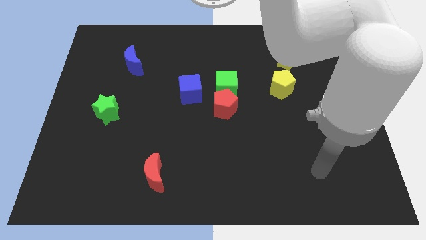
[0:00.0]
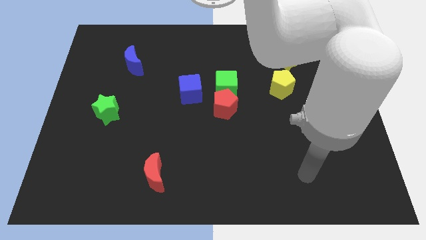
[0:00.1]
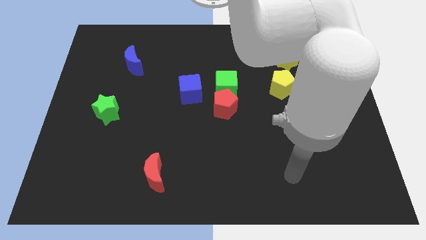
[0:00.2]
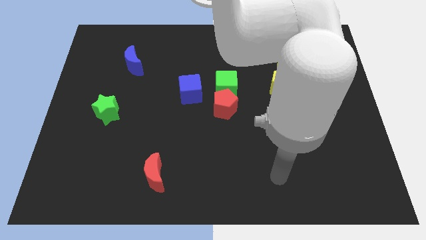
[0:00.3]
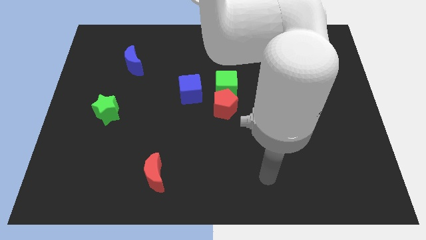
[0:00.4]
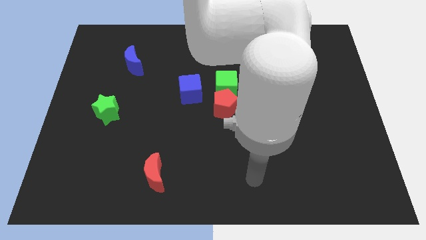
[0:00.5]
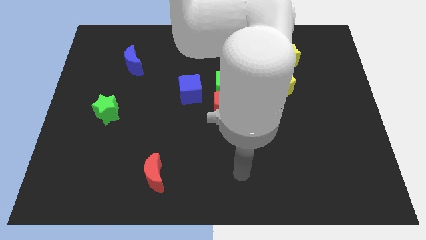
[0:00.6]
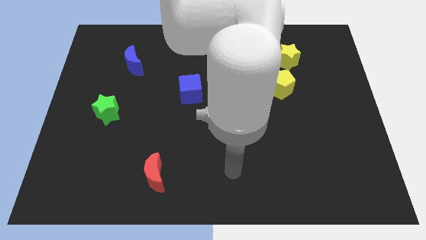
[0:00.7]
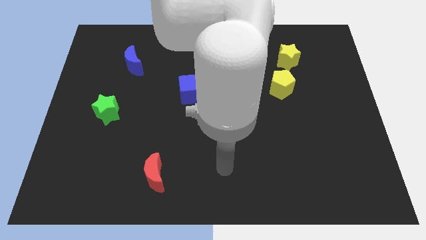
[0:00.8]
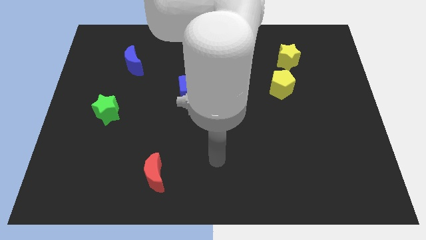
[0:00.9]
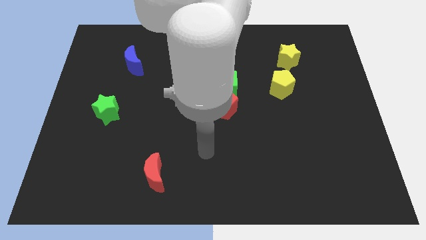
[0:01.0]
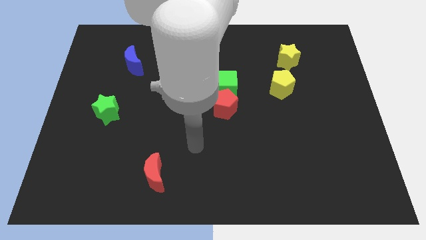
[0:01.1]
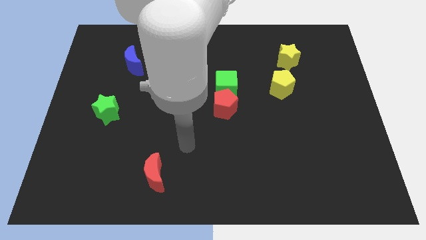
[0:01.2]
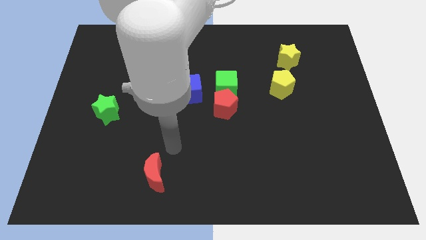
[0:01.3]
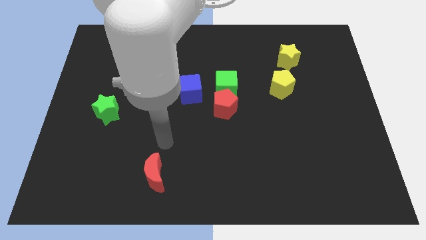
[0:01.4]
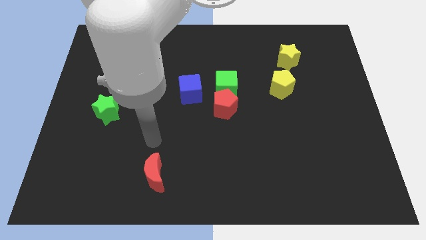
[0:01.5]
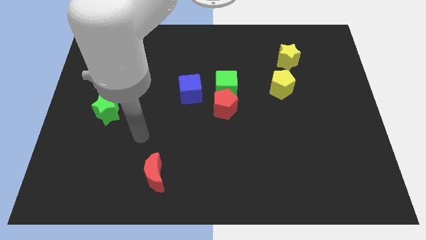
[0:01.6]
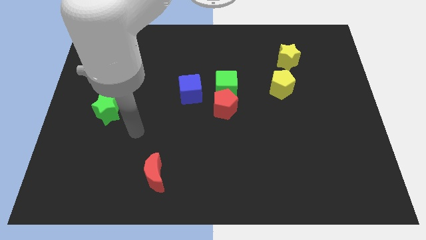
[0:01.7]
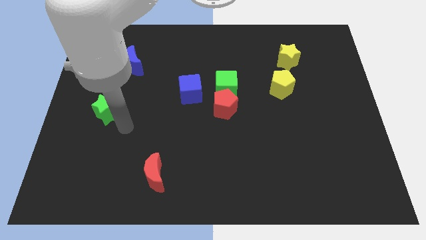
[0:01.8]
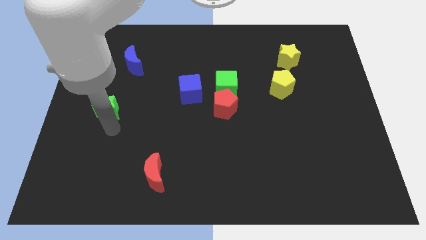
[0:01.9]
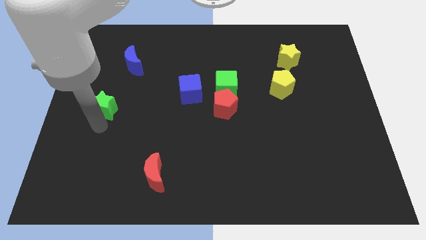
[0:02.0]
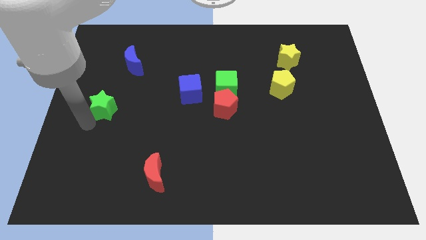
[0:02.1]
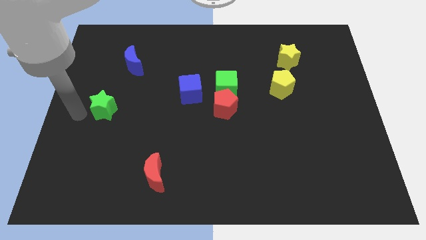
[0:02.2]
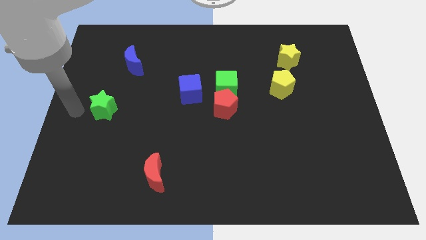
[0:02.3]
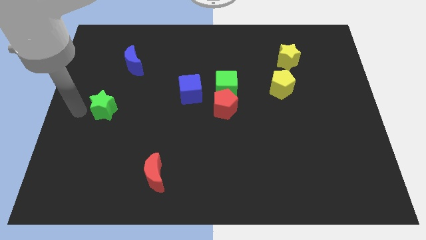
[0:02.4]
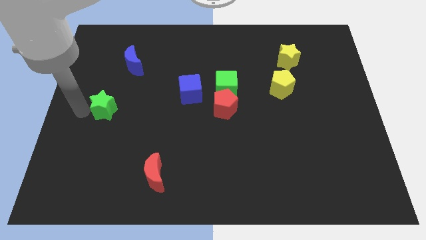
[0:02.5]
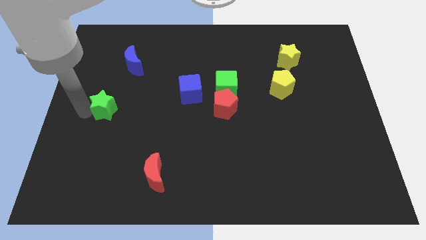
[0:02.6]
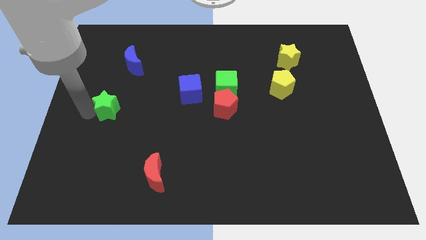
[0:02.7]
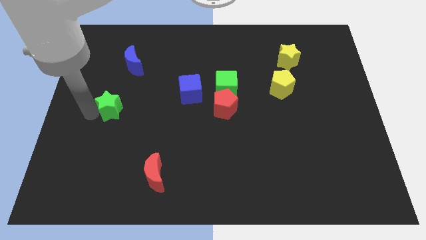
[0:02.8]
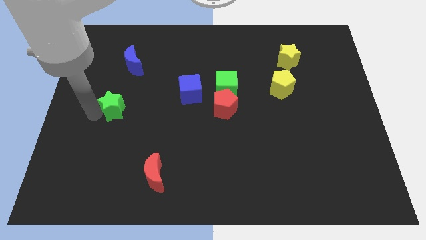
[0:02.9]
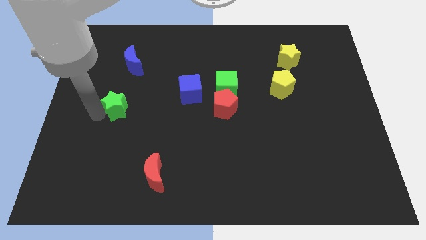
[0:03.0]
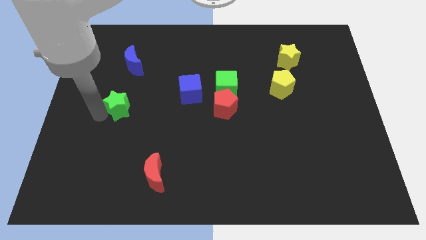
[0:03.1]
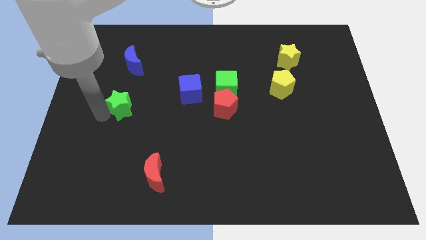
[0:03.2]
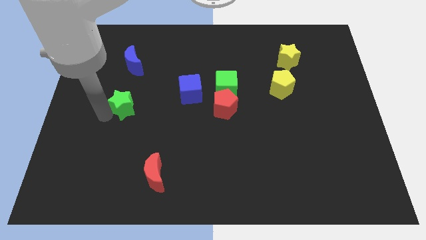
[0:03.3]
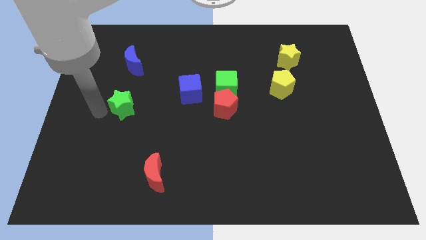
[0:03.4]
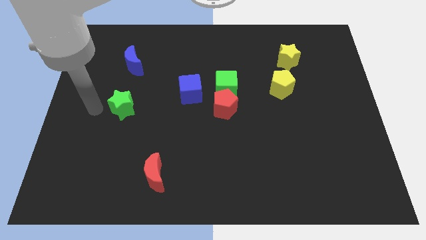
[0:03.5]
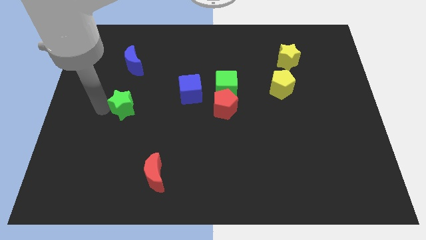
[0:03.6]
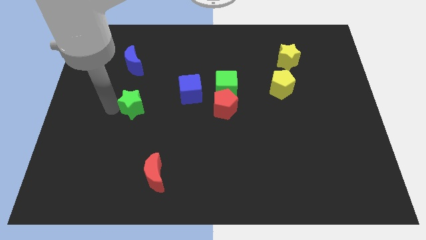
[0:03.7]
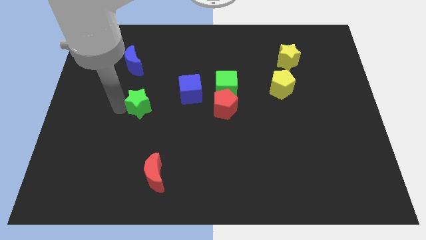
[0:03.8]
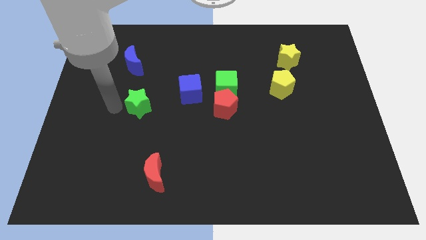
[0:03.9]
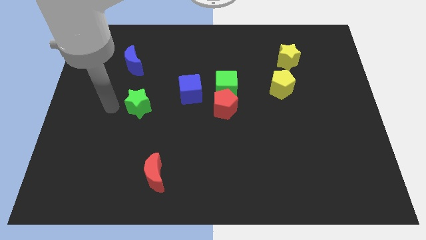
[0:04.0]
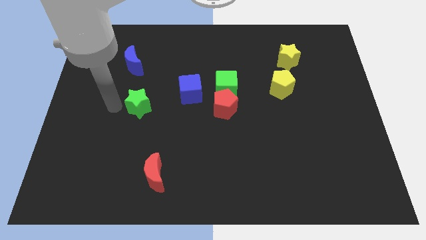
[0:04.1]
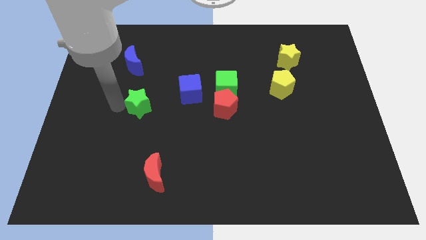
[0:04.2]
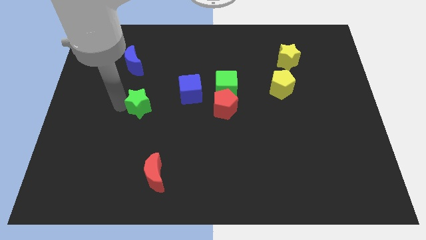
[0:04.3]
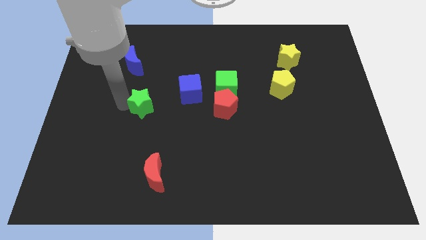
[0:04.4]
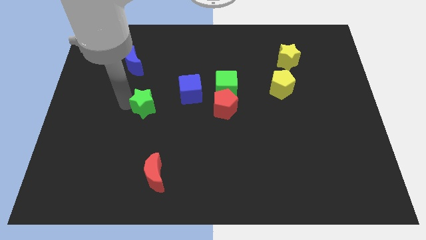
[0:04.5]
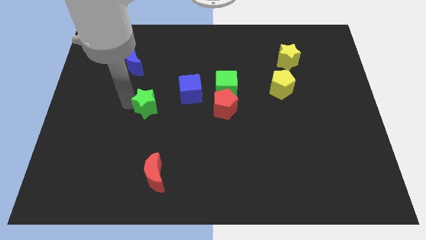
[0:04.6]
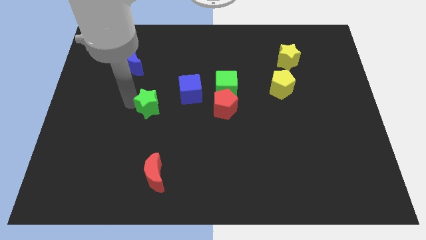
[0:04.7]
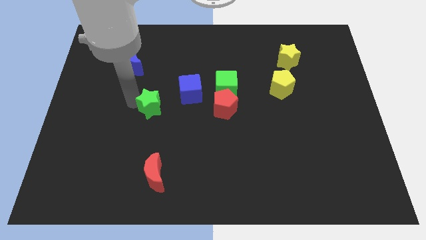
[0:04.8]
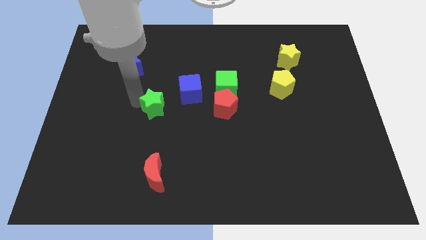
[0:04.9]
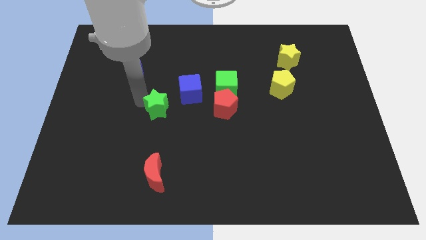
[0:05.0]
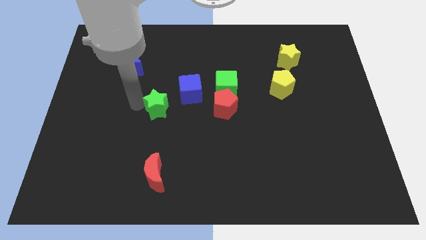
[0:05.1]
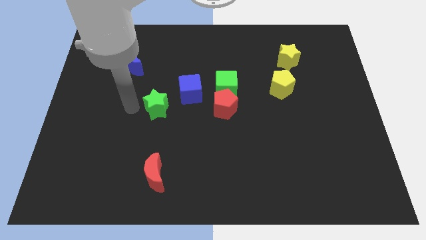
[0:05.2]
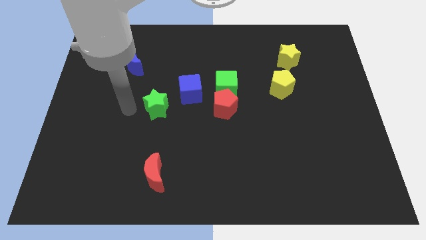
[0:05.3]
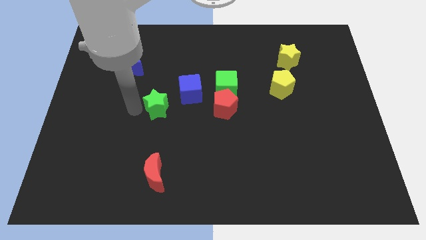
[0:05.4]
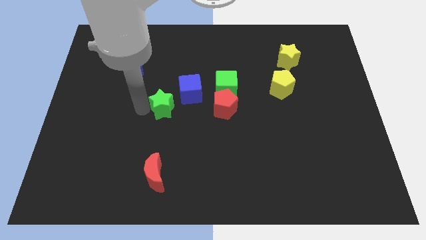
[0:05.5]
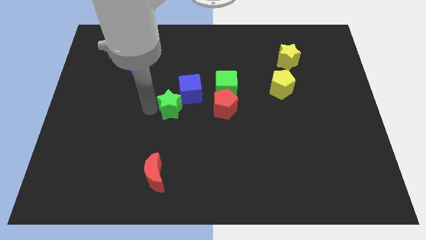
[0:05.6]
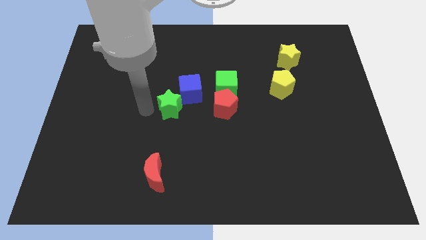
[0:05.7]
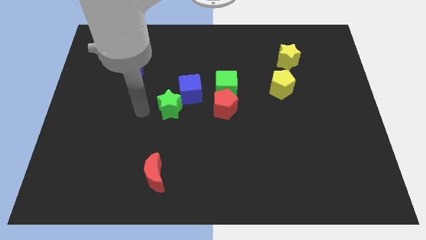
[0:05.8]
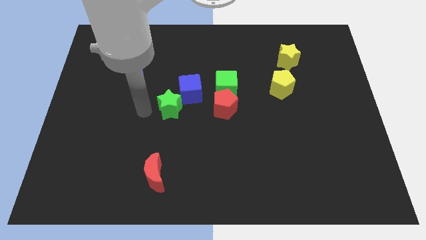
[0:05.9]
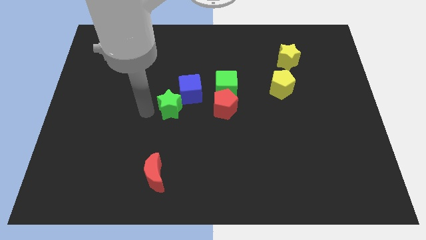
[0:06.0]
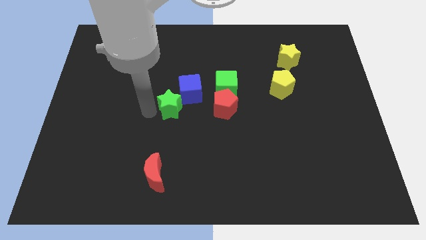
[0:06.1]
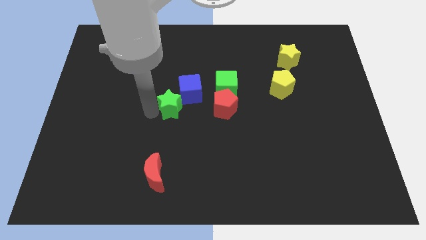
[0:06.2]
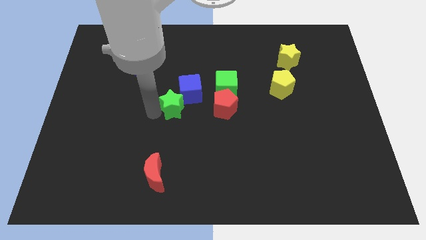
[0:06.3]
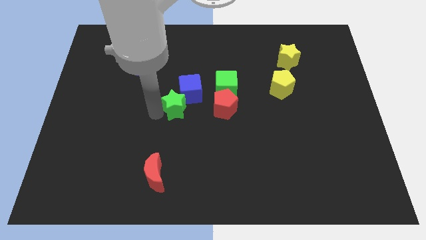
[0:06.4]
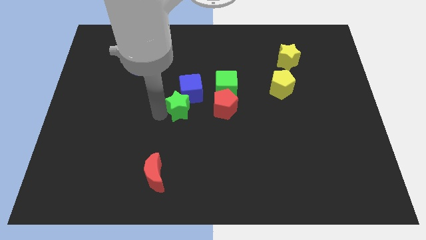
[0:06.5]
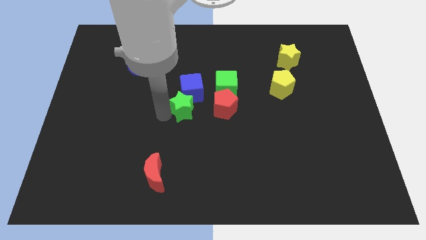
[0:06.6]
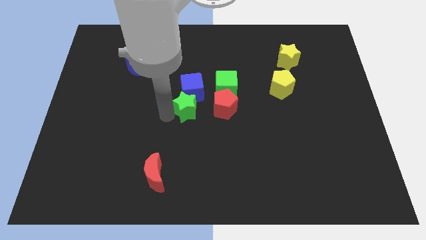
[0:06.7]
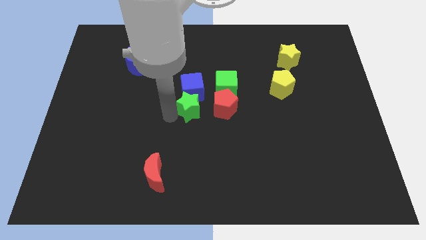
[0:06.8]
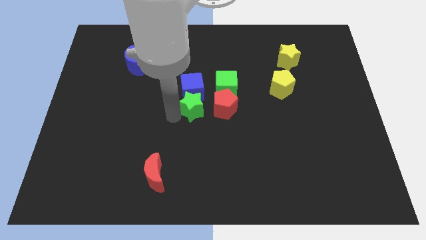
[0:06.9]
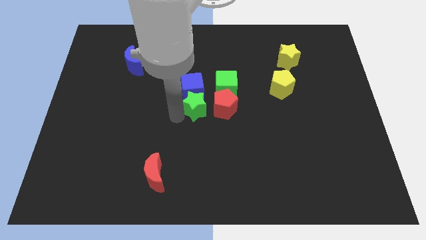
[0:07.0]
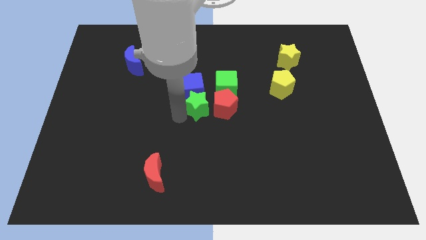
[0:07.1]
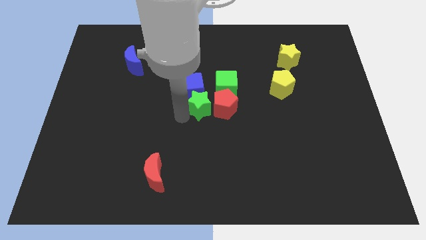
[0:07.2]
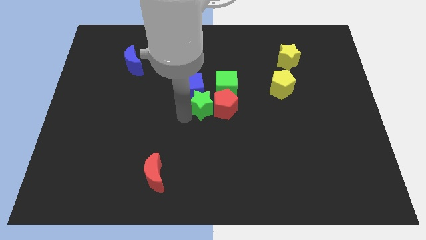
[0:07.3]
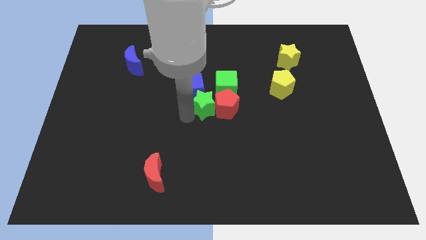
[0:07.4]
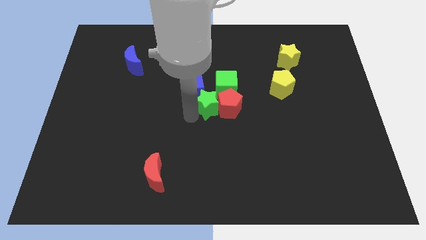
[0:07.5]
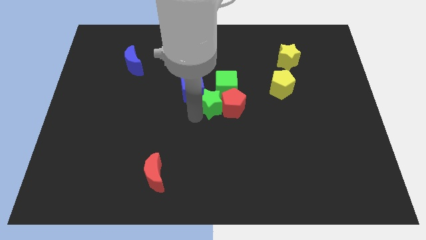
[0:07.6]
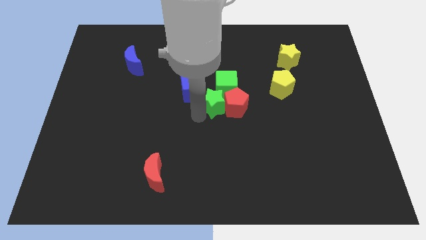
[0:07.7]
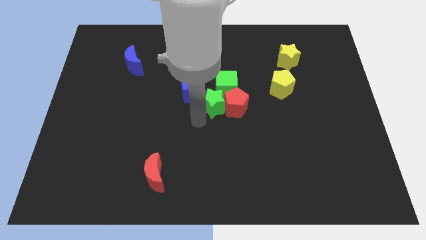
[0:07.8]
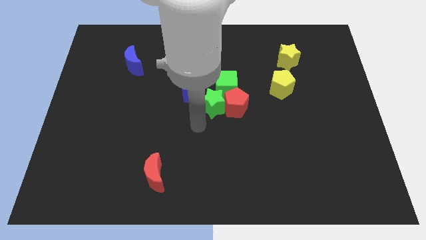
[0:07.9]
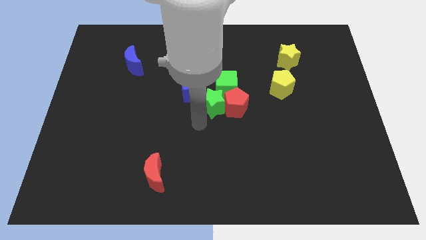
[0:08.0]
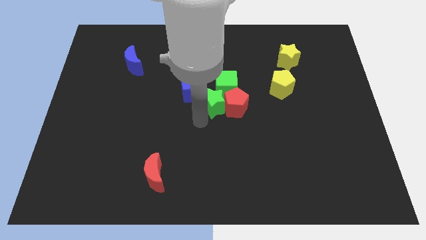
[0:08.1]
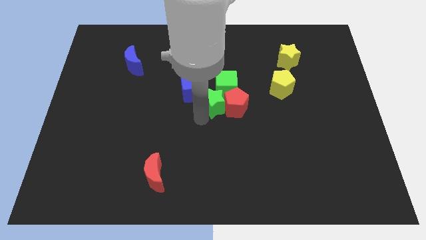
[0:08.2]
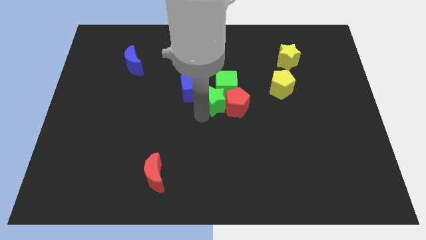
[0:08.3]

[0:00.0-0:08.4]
push the green star next to the green cube
